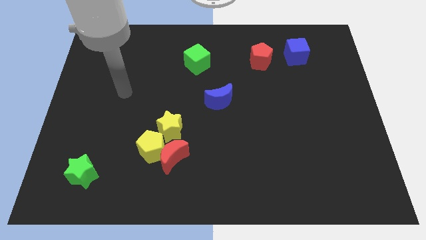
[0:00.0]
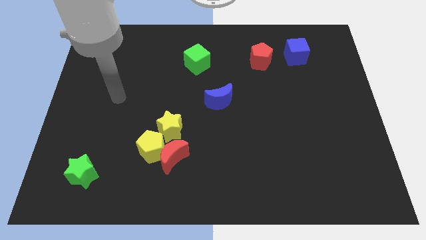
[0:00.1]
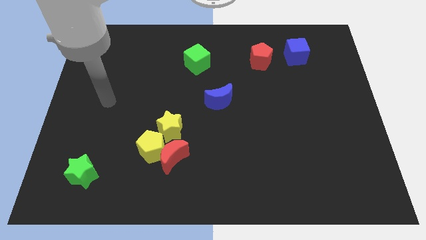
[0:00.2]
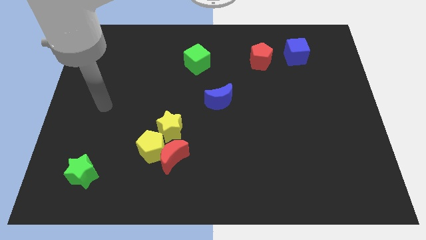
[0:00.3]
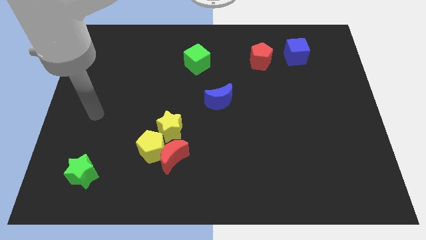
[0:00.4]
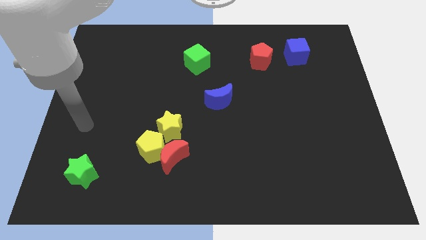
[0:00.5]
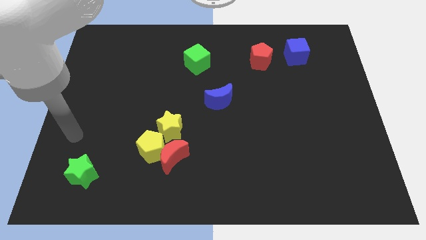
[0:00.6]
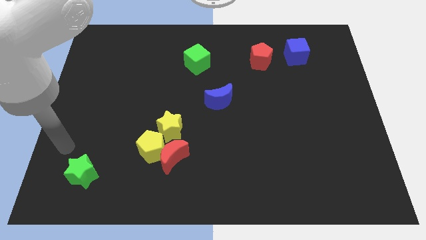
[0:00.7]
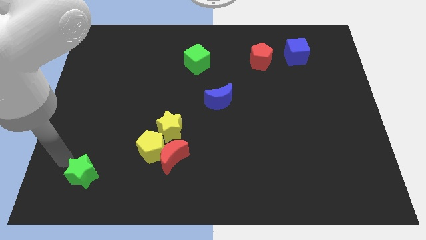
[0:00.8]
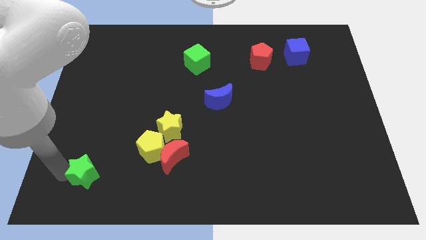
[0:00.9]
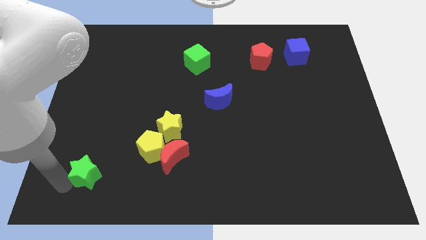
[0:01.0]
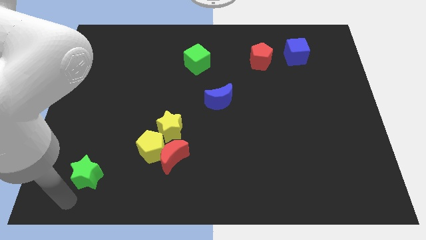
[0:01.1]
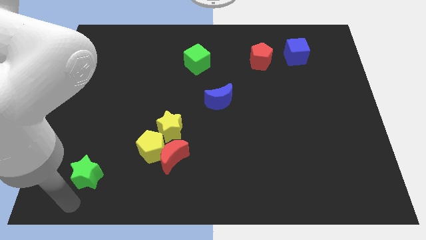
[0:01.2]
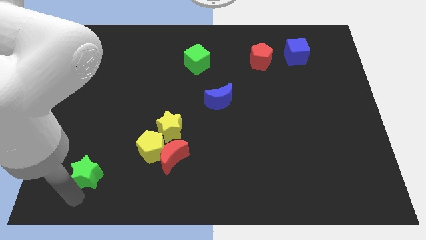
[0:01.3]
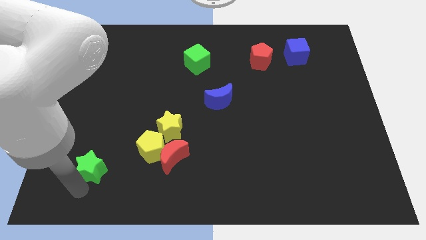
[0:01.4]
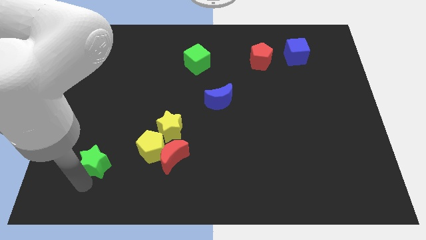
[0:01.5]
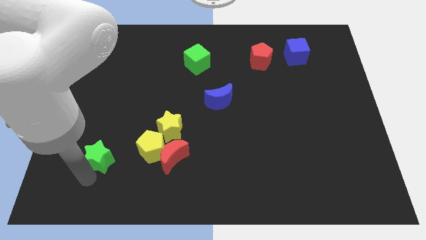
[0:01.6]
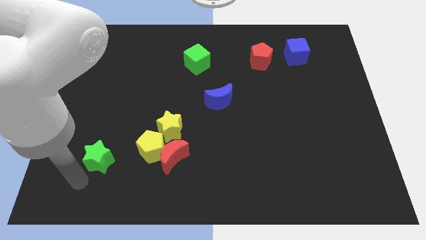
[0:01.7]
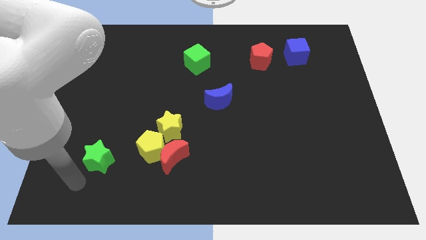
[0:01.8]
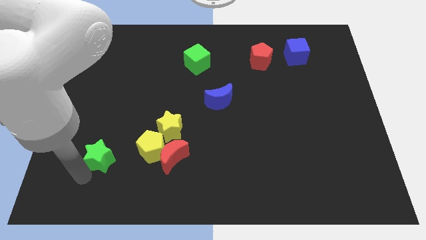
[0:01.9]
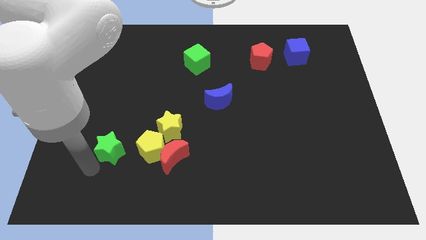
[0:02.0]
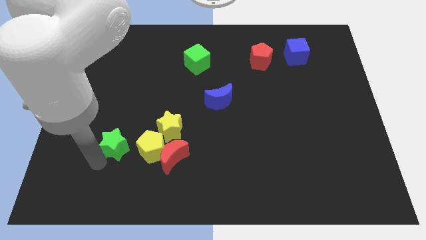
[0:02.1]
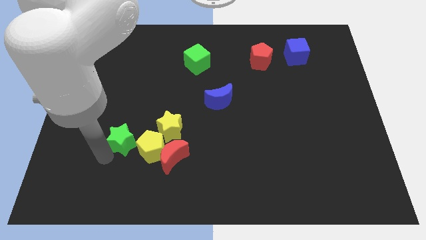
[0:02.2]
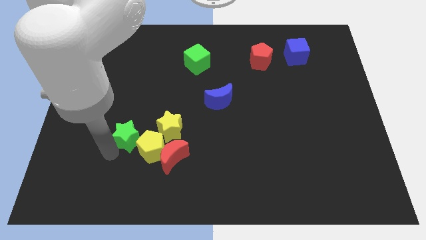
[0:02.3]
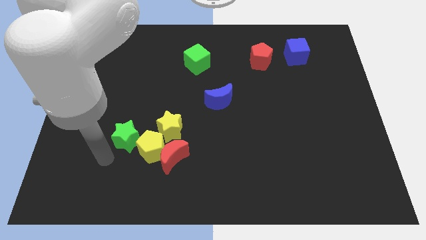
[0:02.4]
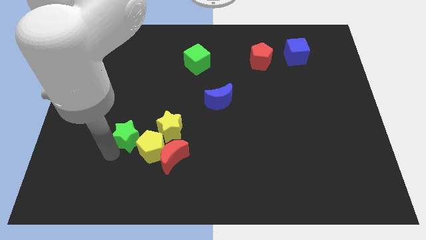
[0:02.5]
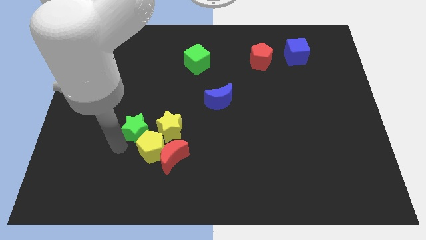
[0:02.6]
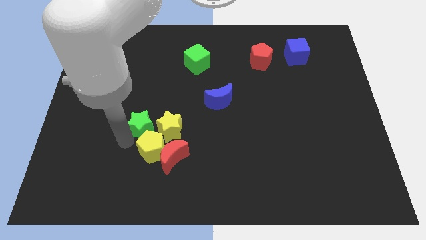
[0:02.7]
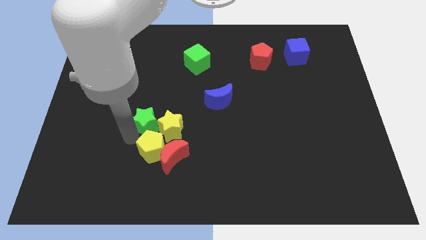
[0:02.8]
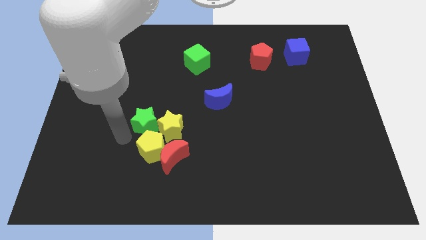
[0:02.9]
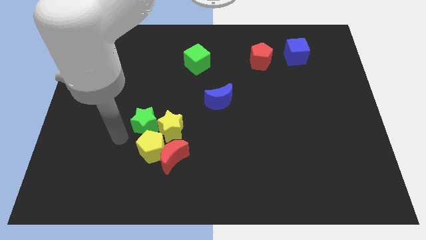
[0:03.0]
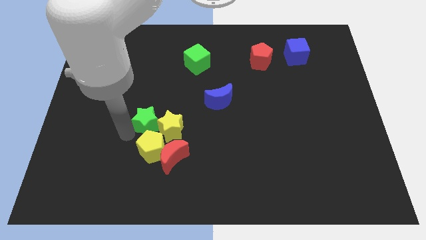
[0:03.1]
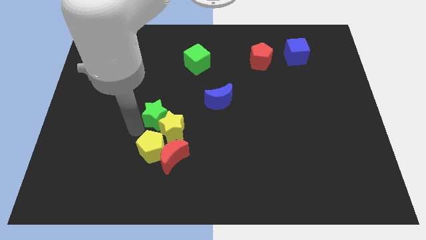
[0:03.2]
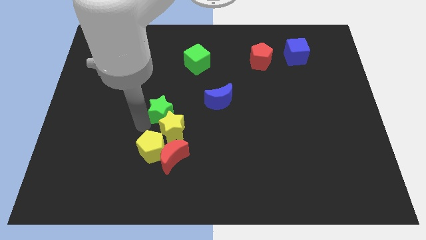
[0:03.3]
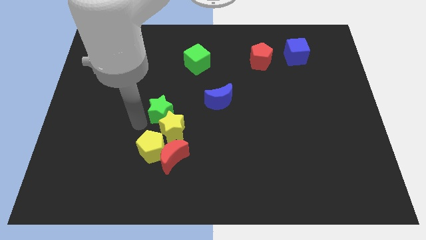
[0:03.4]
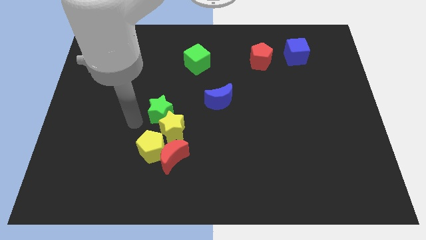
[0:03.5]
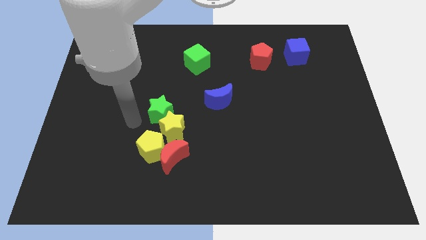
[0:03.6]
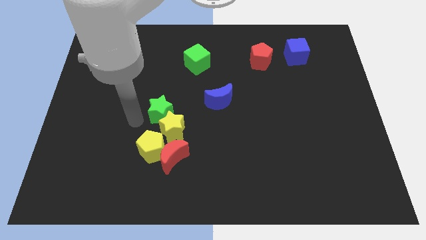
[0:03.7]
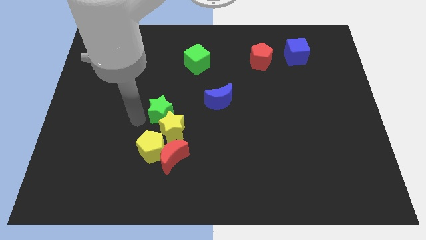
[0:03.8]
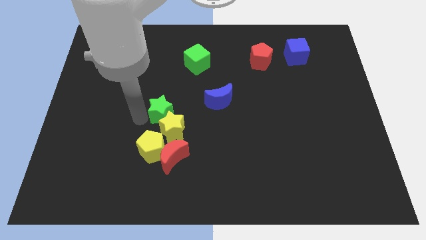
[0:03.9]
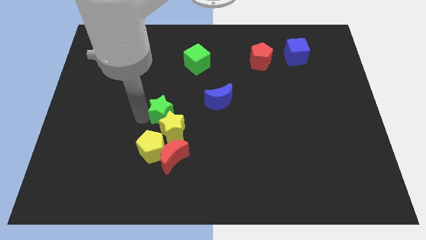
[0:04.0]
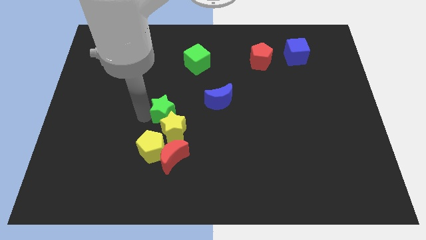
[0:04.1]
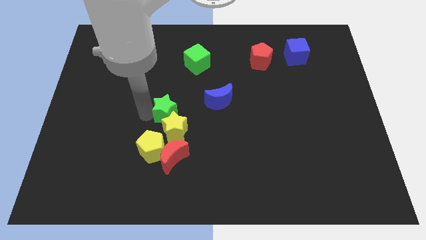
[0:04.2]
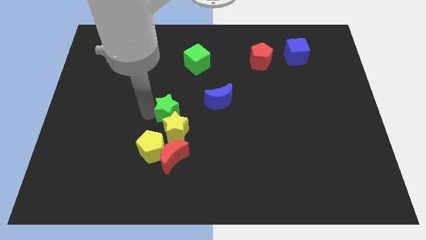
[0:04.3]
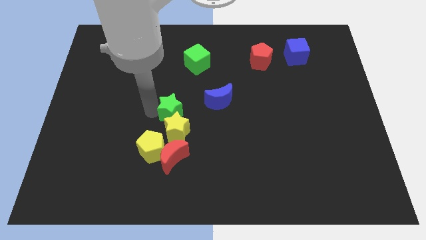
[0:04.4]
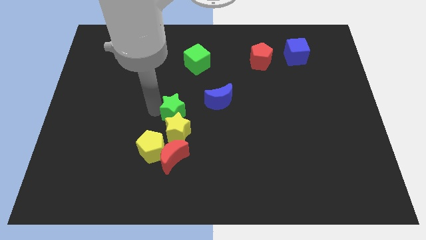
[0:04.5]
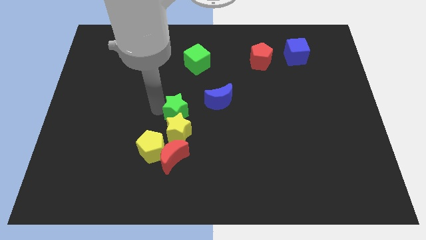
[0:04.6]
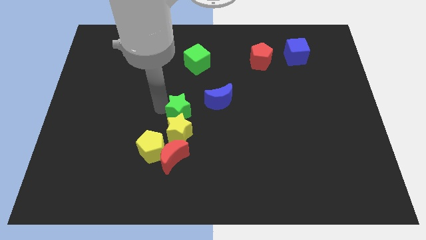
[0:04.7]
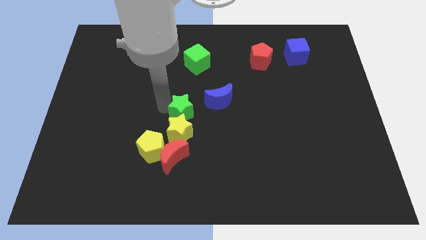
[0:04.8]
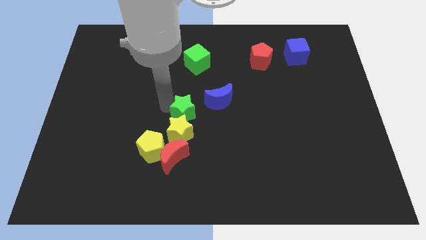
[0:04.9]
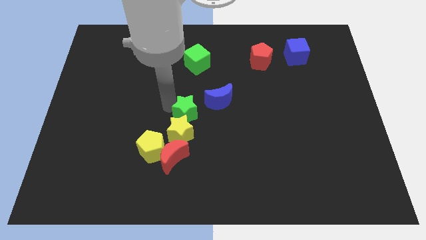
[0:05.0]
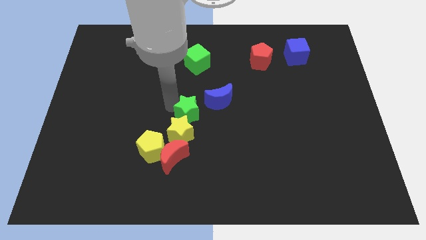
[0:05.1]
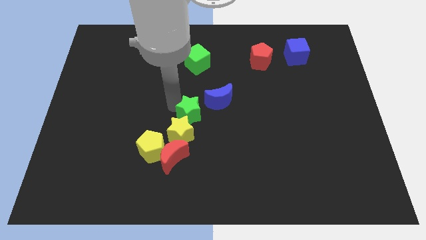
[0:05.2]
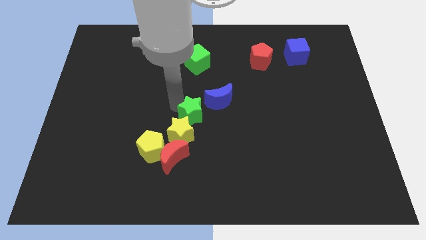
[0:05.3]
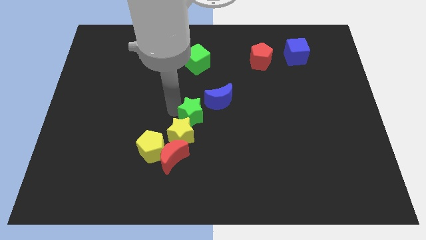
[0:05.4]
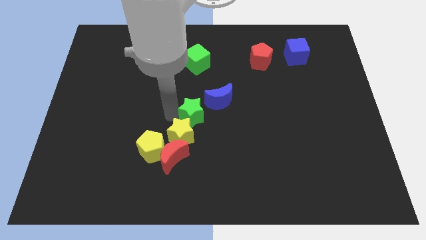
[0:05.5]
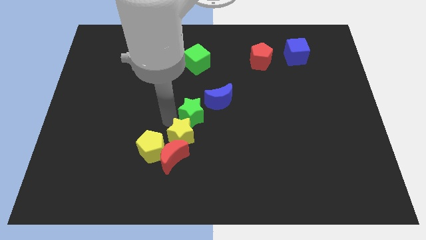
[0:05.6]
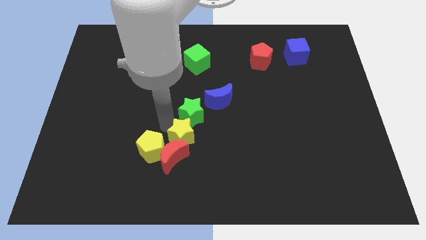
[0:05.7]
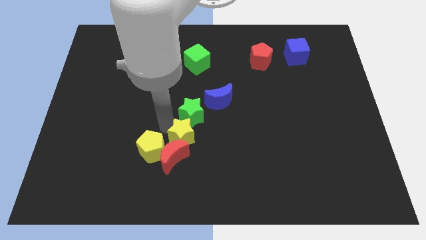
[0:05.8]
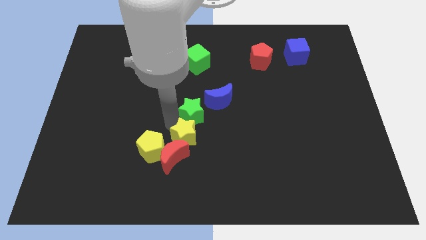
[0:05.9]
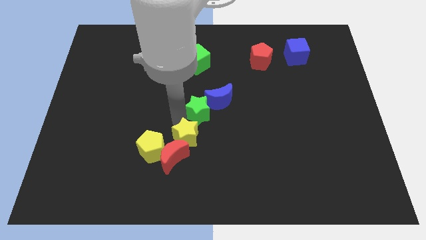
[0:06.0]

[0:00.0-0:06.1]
slide the green star towards the blue moon

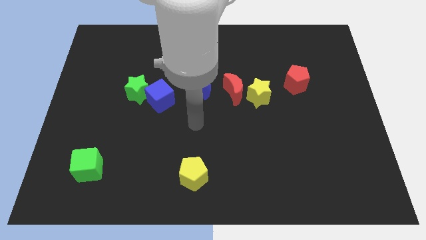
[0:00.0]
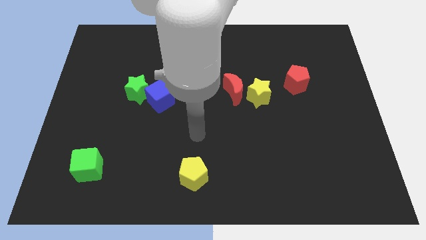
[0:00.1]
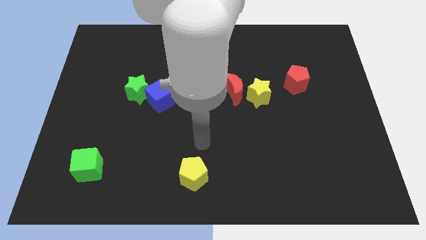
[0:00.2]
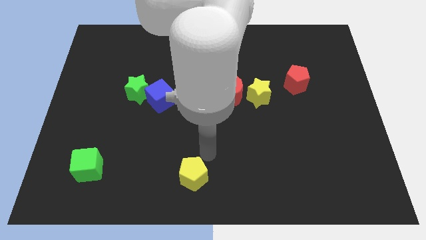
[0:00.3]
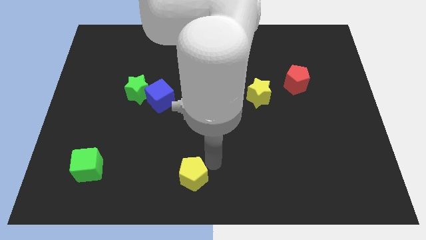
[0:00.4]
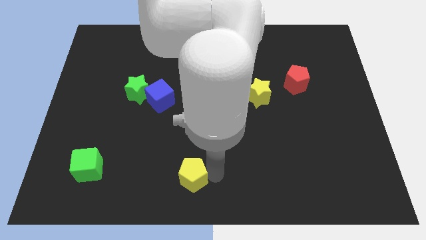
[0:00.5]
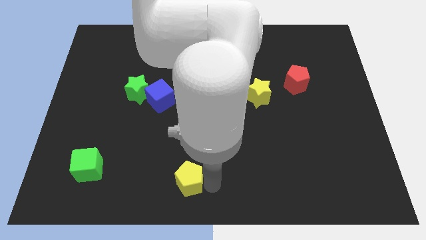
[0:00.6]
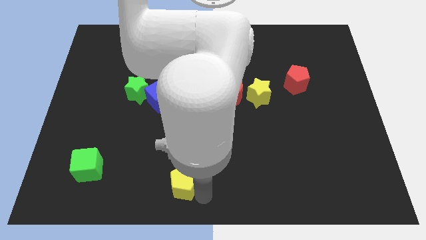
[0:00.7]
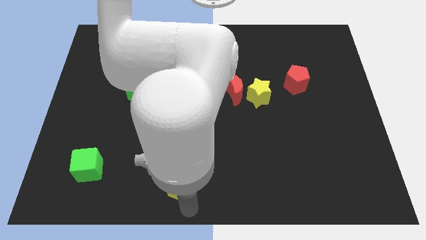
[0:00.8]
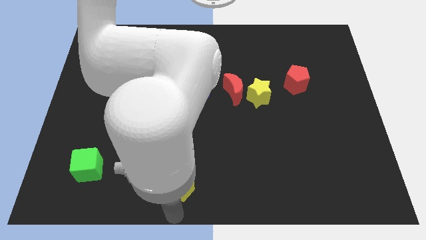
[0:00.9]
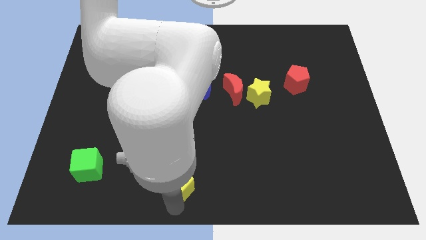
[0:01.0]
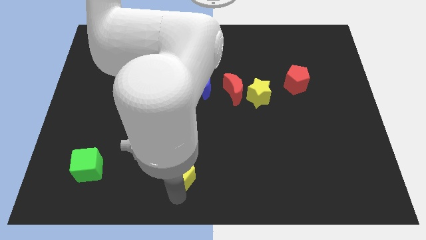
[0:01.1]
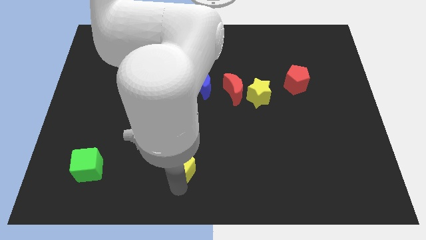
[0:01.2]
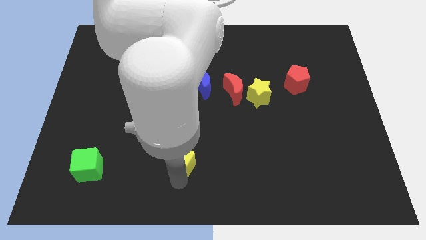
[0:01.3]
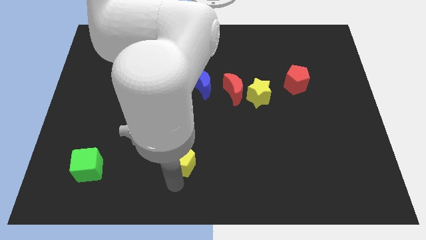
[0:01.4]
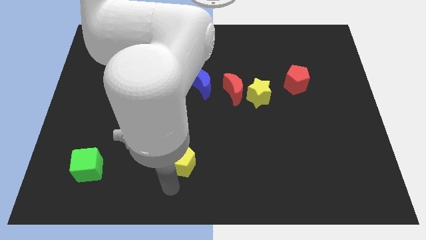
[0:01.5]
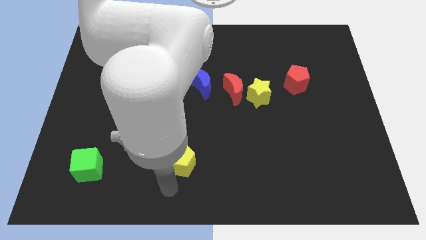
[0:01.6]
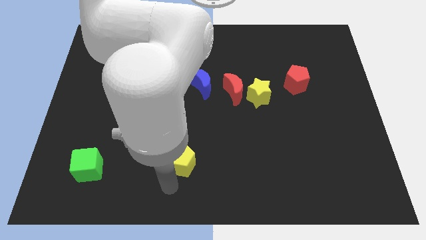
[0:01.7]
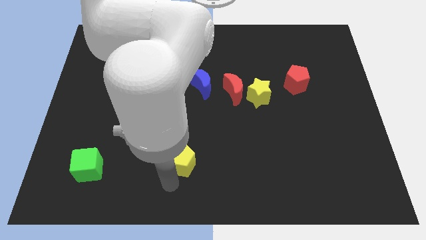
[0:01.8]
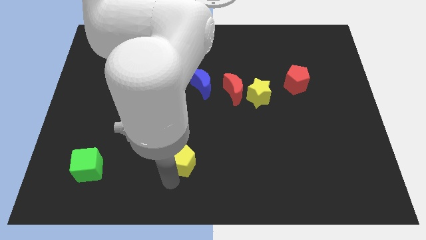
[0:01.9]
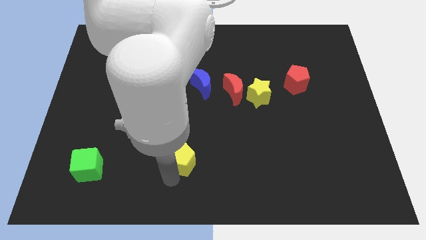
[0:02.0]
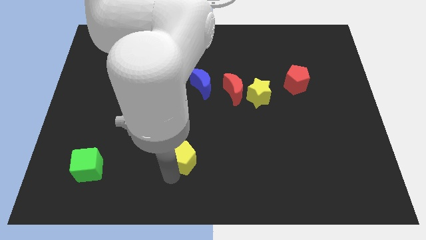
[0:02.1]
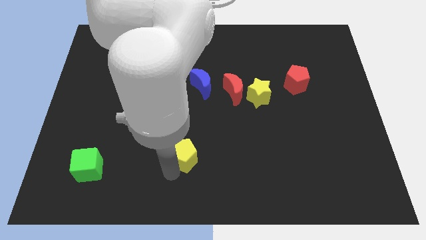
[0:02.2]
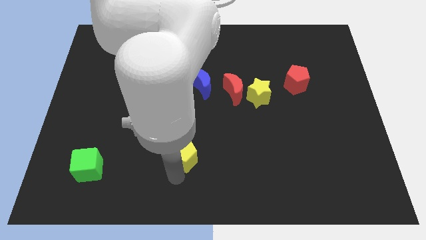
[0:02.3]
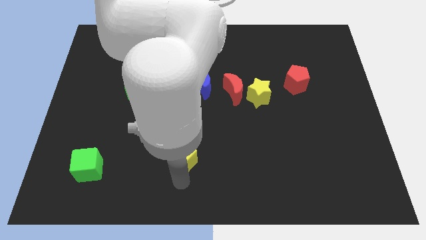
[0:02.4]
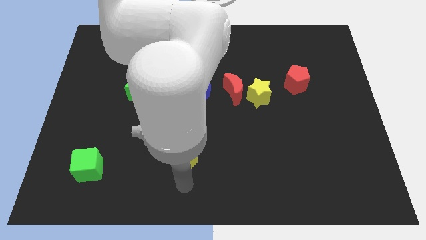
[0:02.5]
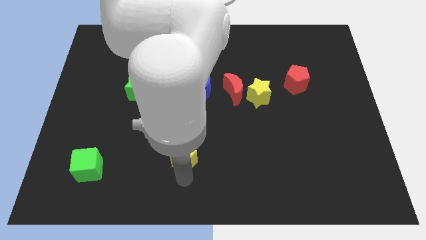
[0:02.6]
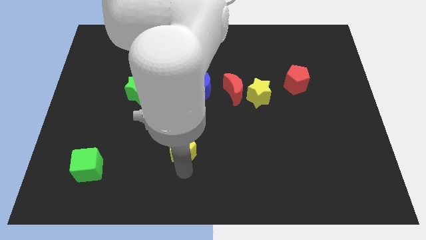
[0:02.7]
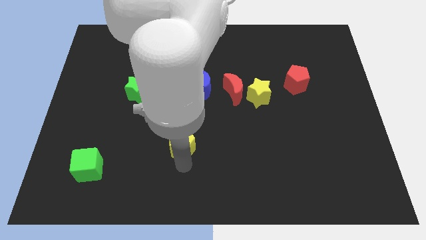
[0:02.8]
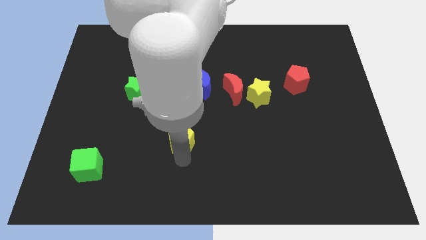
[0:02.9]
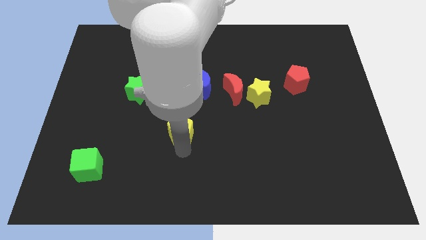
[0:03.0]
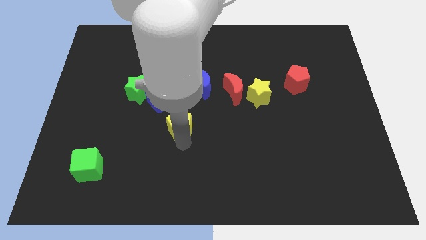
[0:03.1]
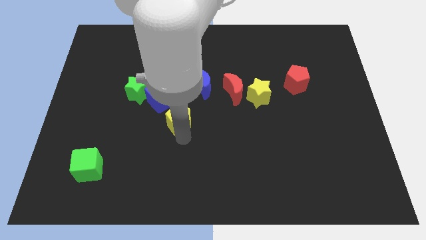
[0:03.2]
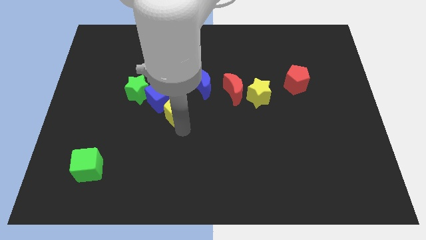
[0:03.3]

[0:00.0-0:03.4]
move the yellow pentagon next to the blue cube
